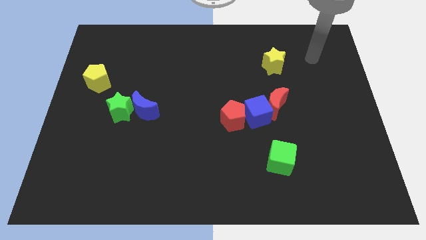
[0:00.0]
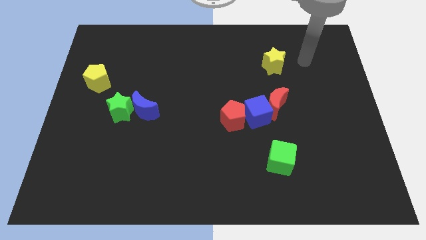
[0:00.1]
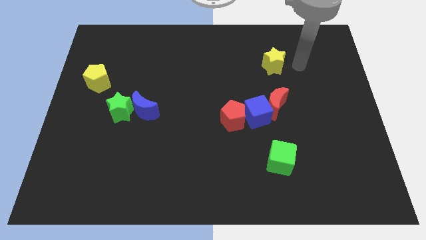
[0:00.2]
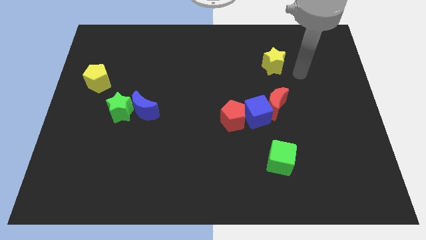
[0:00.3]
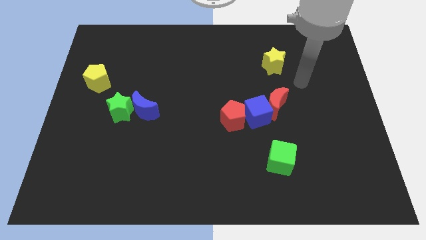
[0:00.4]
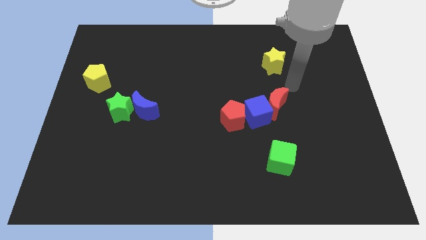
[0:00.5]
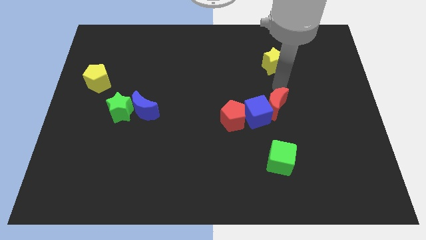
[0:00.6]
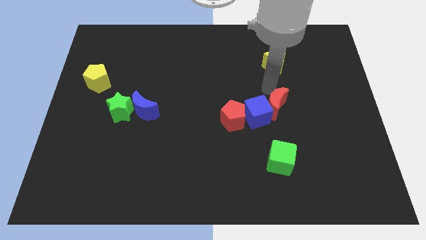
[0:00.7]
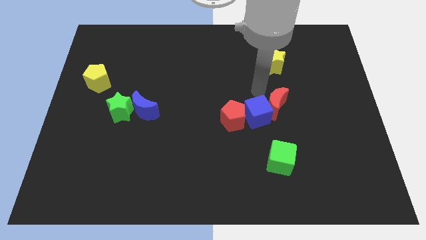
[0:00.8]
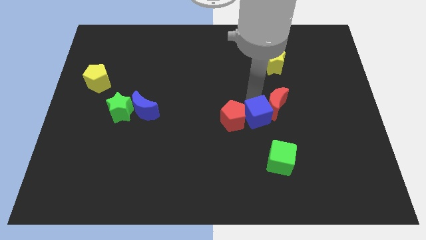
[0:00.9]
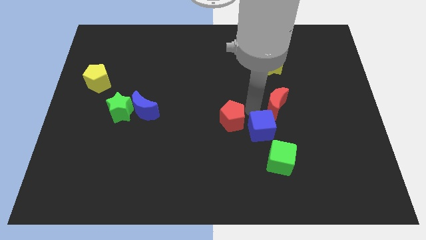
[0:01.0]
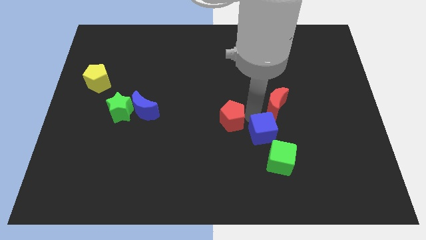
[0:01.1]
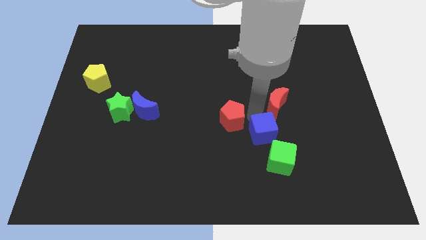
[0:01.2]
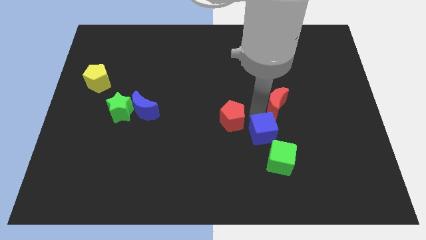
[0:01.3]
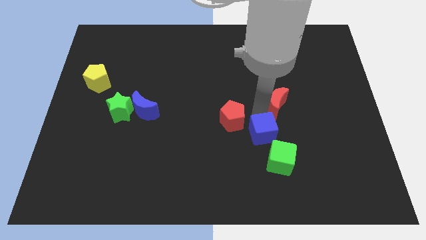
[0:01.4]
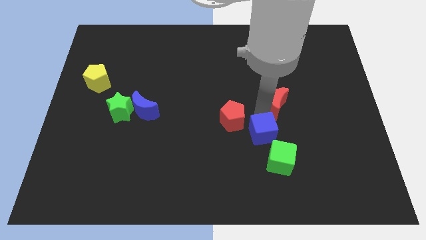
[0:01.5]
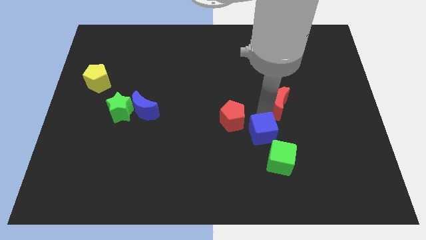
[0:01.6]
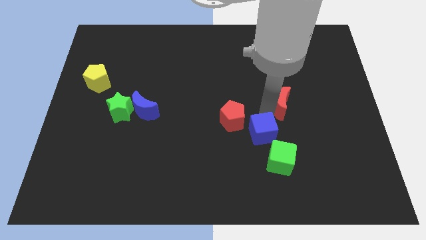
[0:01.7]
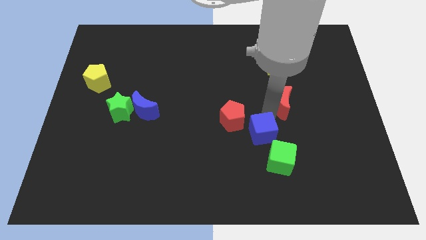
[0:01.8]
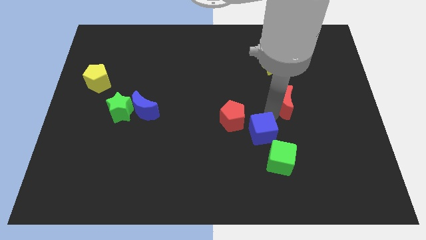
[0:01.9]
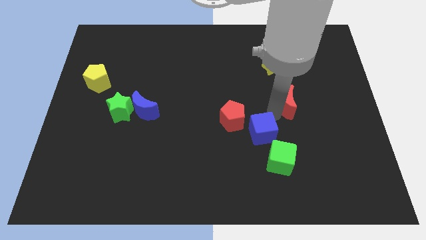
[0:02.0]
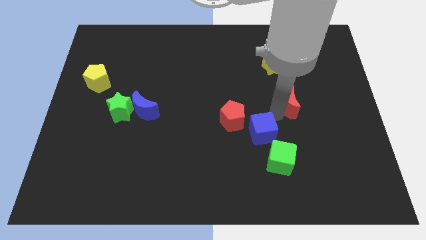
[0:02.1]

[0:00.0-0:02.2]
separate the red moon from the blue cube

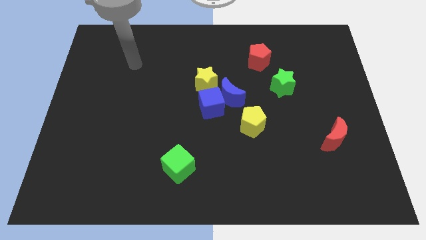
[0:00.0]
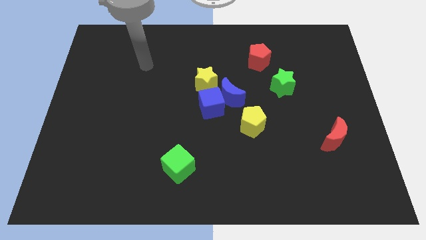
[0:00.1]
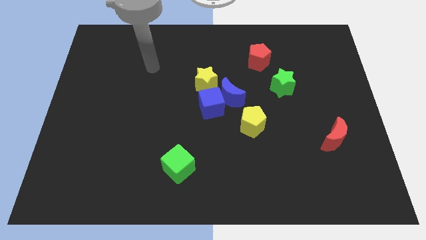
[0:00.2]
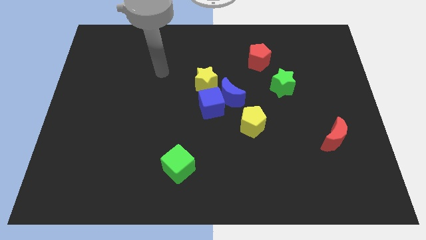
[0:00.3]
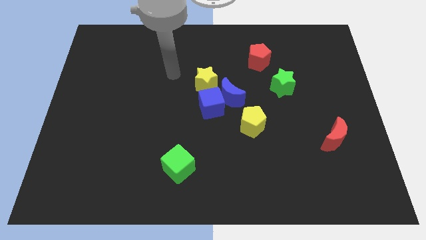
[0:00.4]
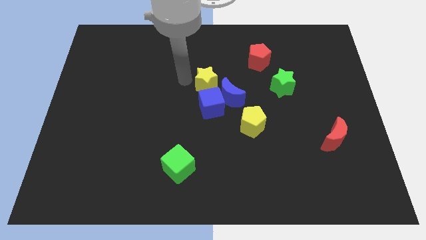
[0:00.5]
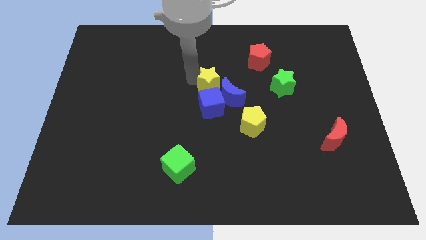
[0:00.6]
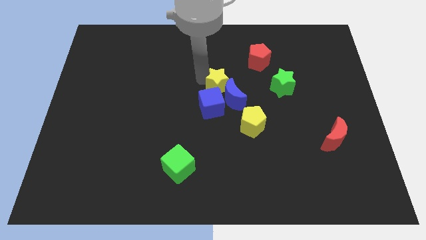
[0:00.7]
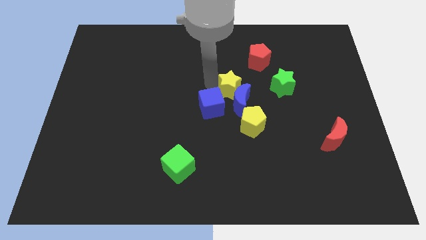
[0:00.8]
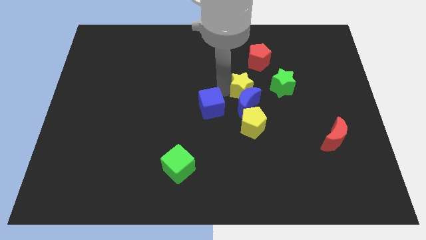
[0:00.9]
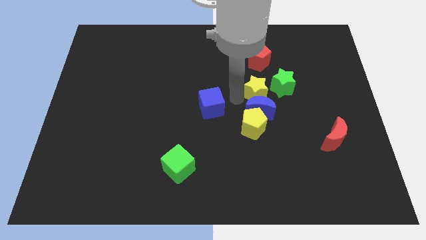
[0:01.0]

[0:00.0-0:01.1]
move the blue cube away from the blue moon and yellow star

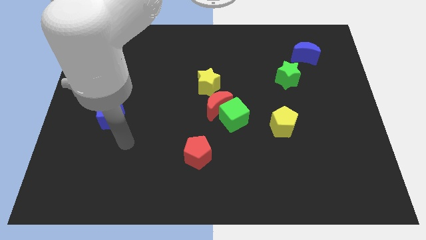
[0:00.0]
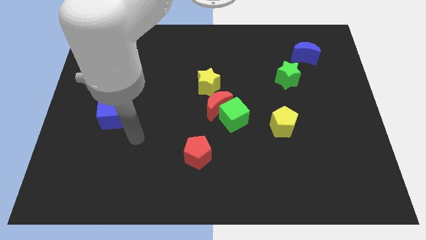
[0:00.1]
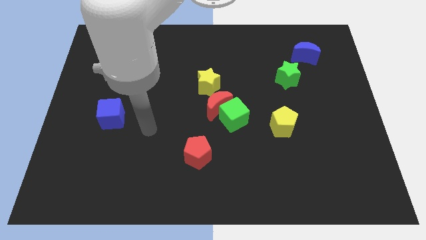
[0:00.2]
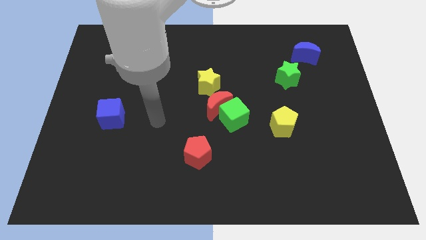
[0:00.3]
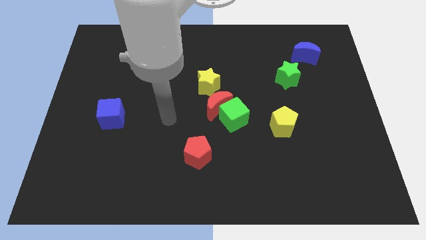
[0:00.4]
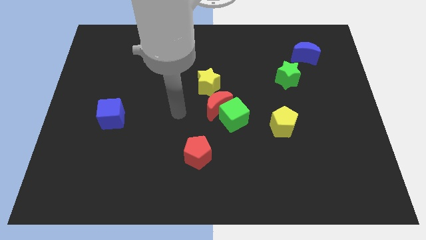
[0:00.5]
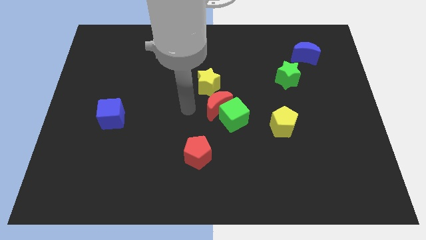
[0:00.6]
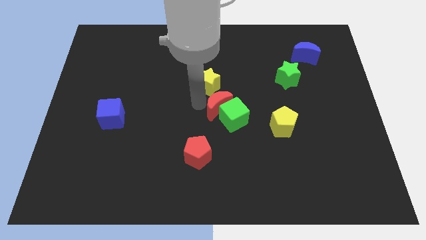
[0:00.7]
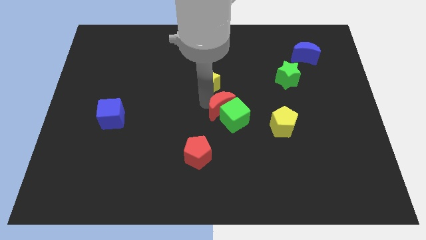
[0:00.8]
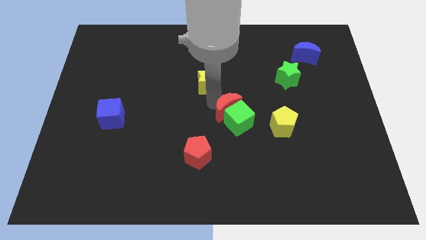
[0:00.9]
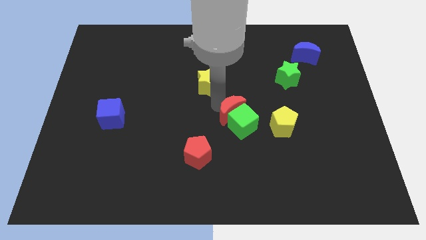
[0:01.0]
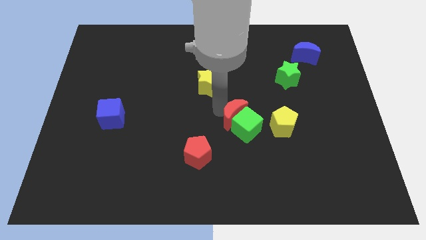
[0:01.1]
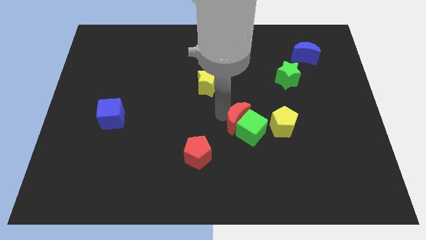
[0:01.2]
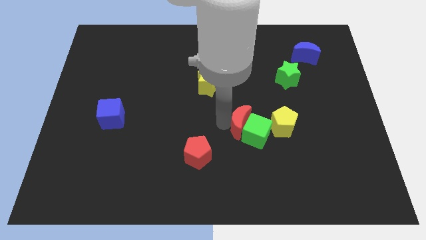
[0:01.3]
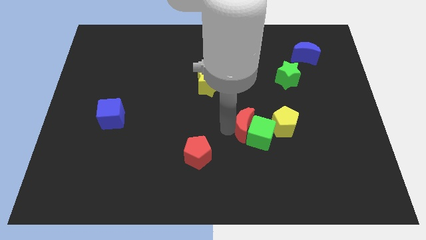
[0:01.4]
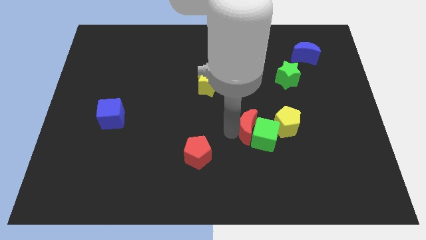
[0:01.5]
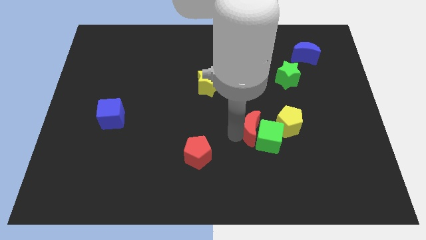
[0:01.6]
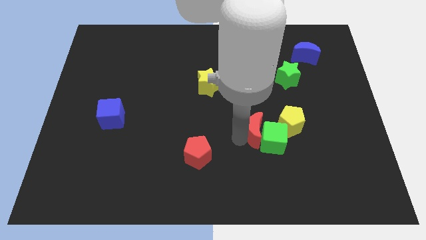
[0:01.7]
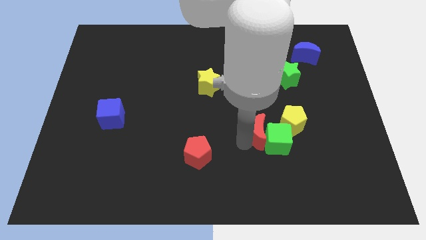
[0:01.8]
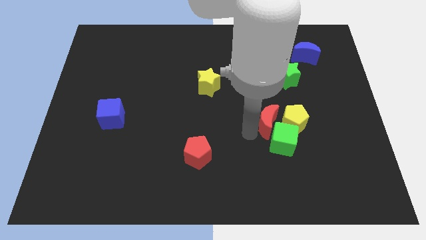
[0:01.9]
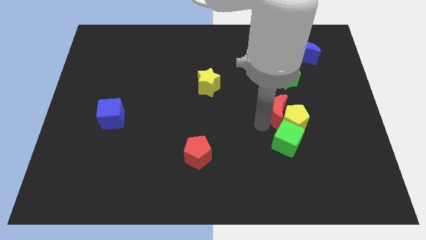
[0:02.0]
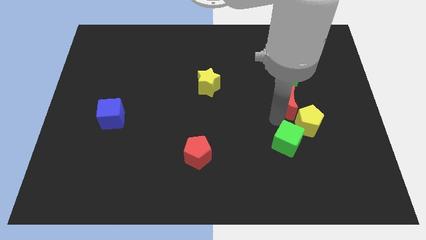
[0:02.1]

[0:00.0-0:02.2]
move the green cube away from the red moon

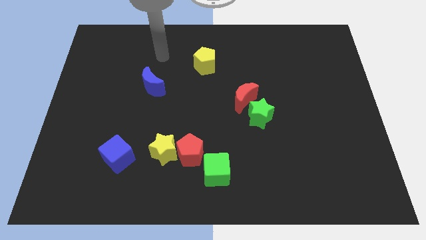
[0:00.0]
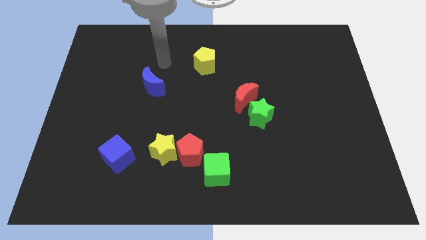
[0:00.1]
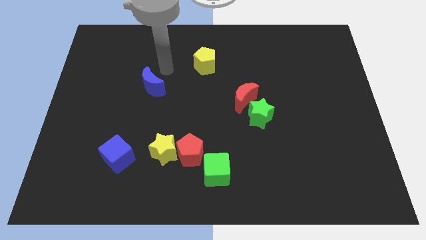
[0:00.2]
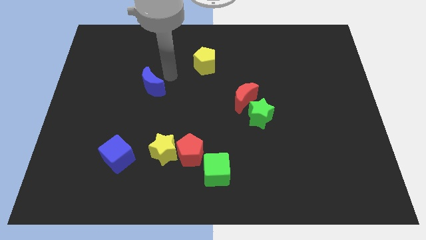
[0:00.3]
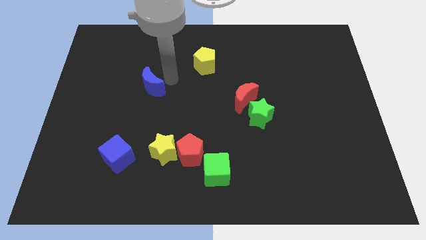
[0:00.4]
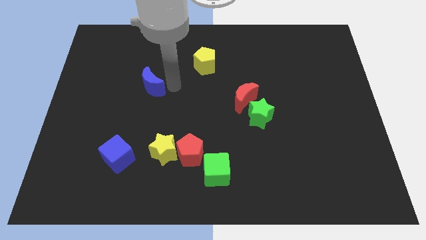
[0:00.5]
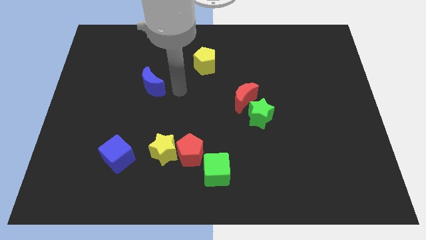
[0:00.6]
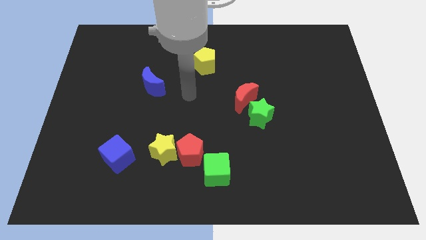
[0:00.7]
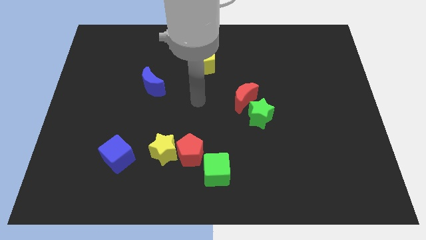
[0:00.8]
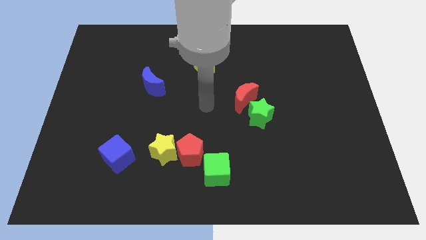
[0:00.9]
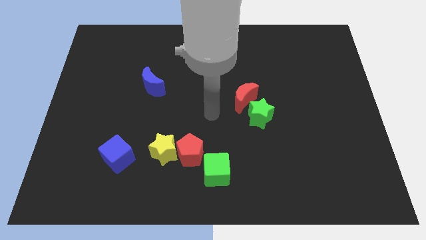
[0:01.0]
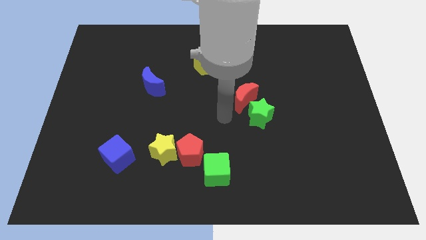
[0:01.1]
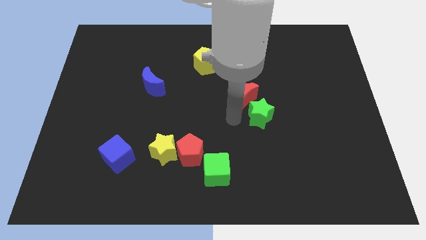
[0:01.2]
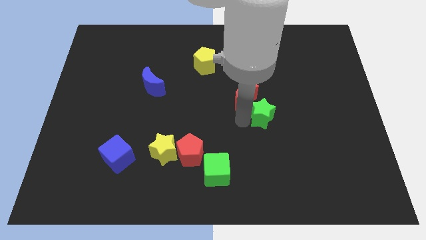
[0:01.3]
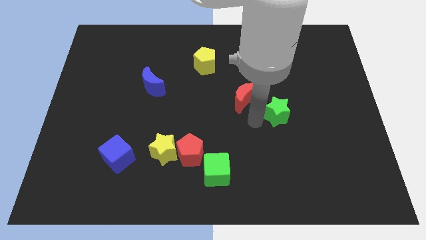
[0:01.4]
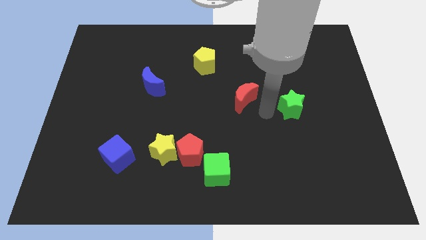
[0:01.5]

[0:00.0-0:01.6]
pull the red moon apart from the green star

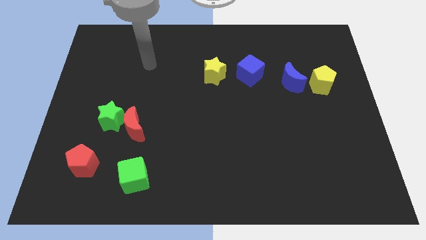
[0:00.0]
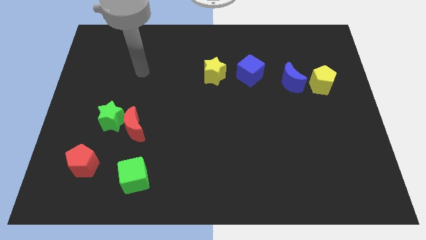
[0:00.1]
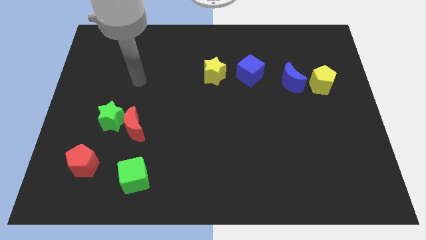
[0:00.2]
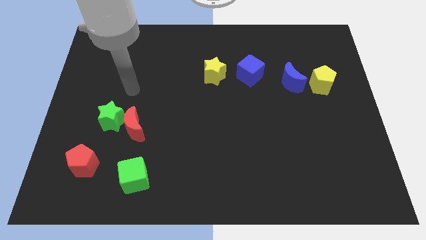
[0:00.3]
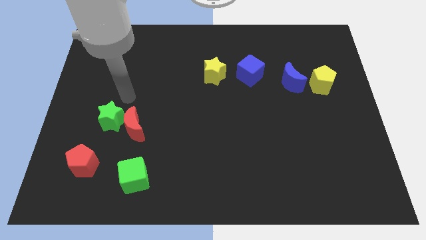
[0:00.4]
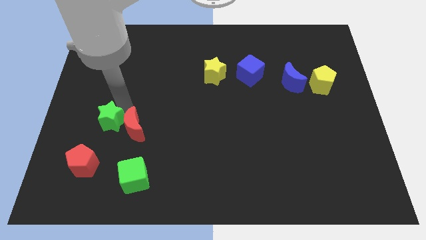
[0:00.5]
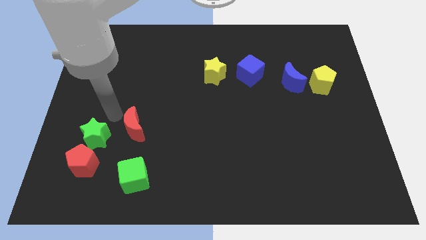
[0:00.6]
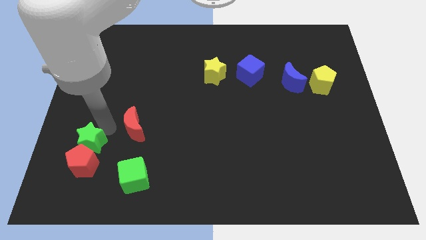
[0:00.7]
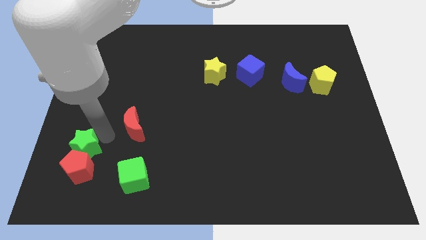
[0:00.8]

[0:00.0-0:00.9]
separate the red moon from the green star

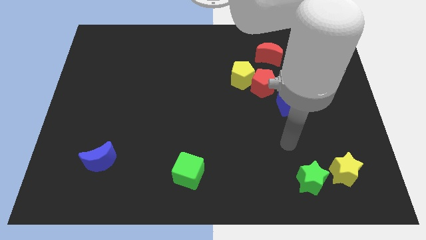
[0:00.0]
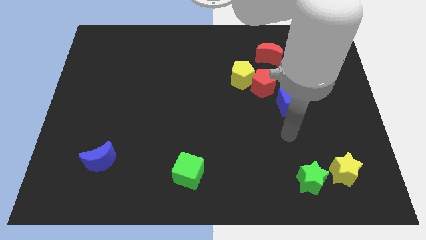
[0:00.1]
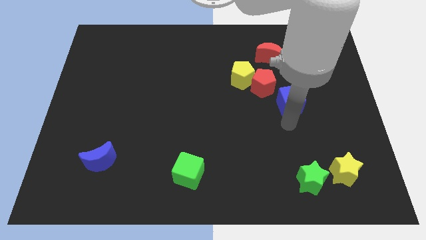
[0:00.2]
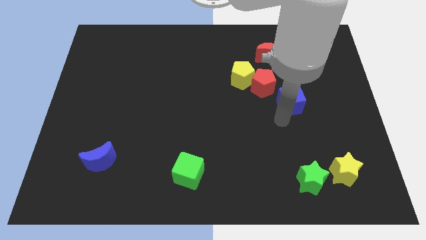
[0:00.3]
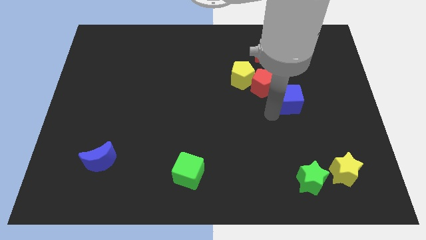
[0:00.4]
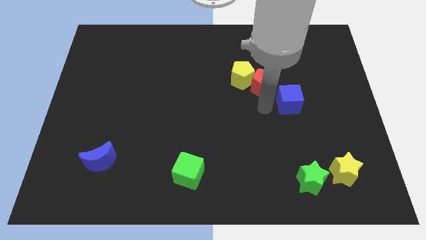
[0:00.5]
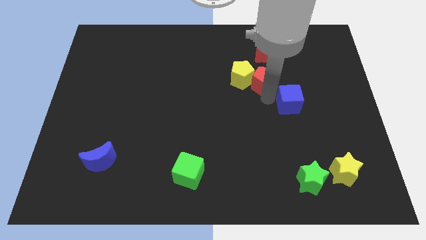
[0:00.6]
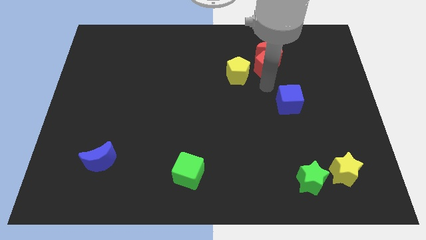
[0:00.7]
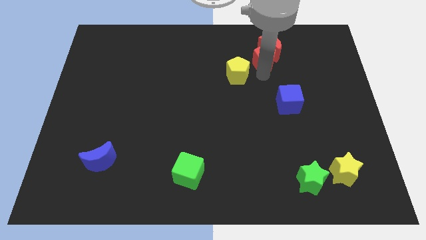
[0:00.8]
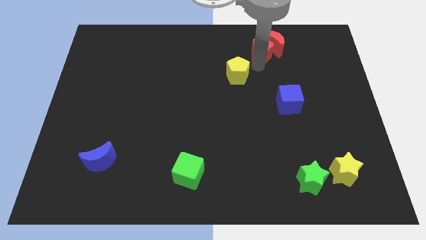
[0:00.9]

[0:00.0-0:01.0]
move the yellow pentagon away from the red pentagon

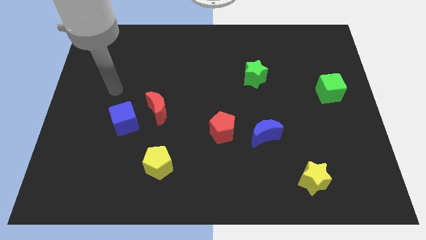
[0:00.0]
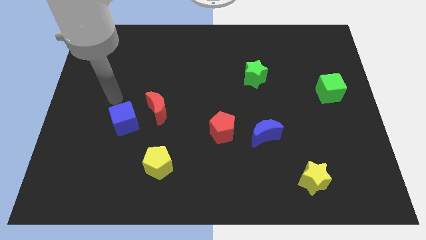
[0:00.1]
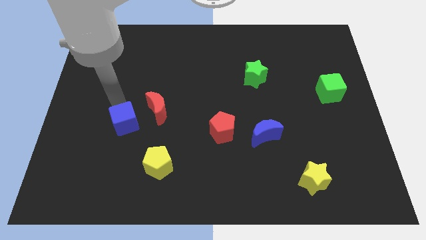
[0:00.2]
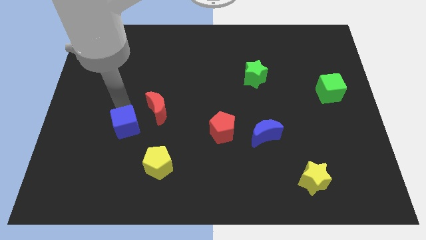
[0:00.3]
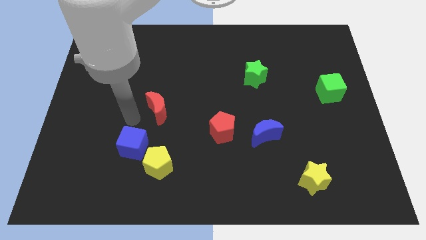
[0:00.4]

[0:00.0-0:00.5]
pull the red moon apart from the blue cube
